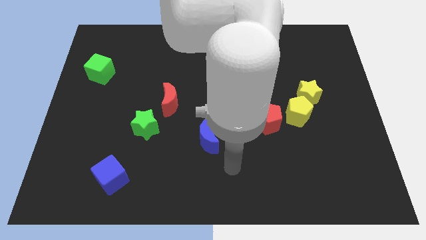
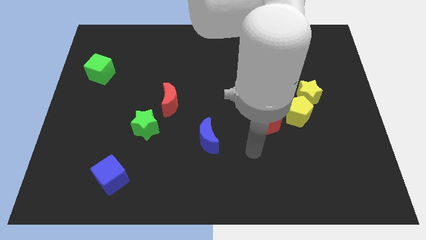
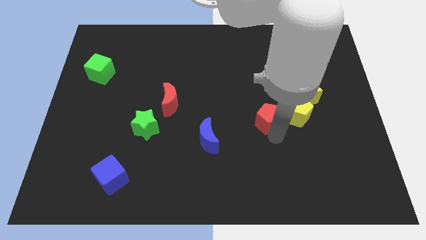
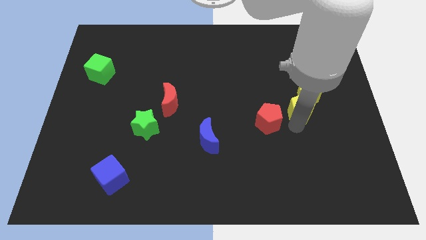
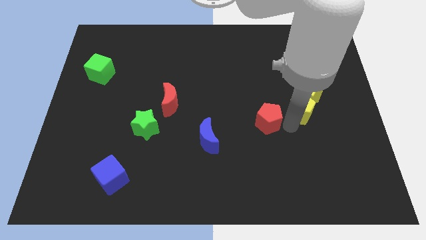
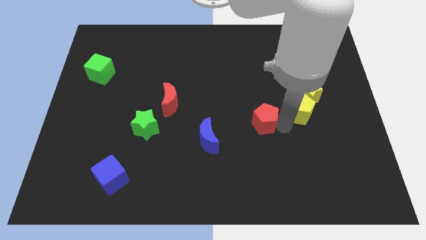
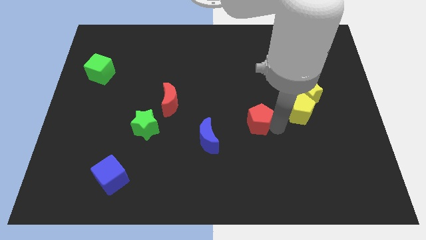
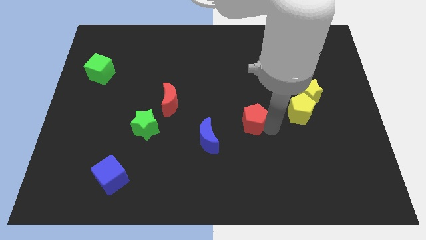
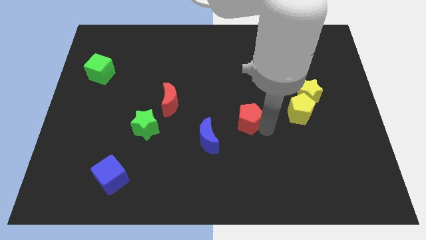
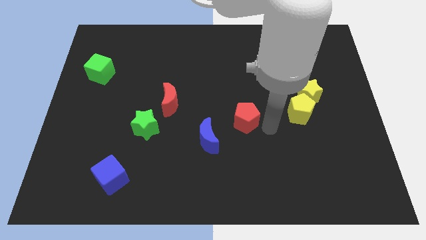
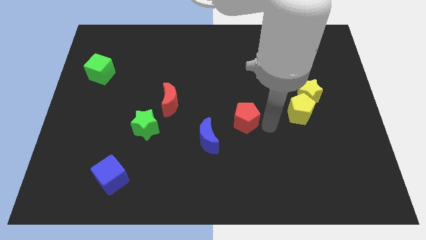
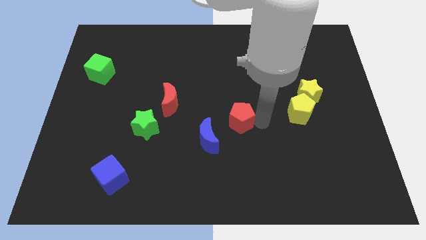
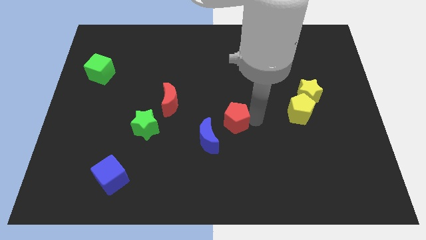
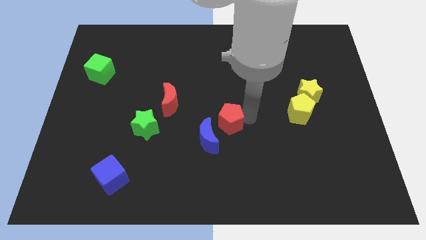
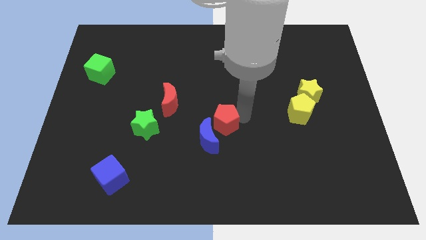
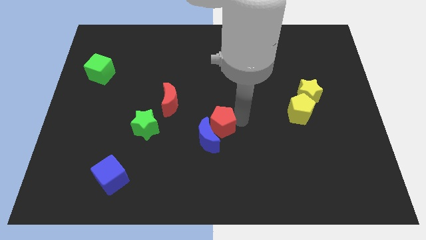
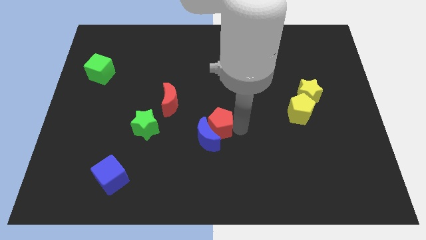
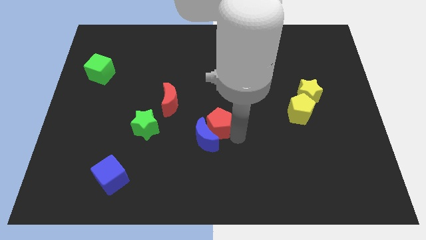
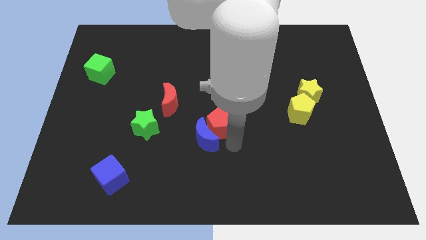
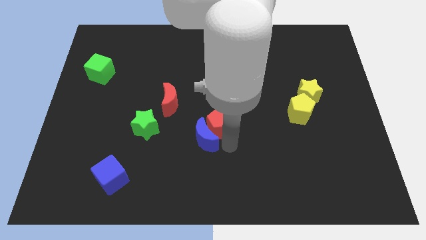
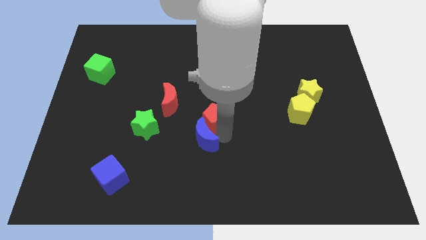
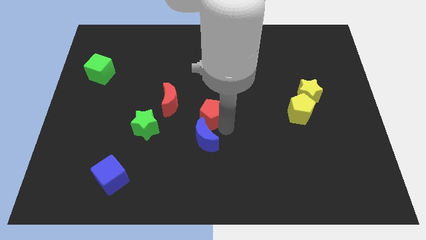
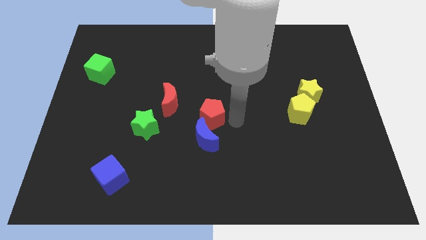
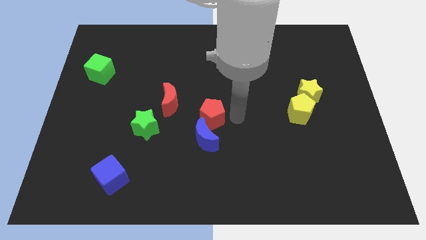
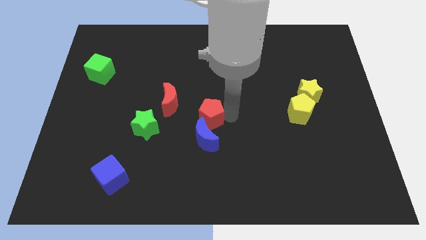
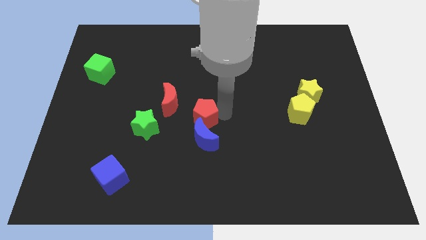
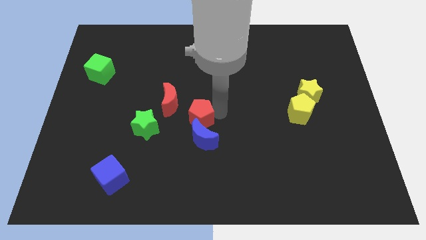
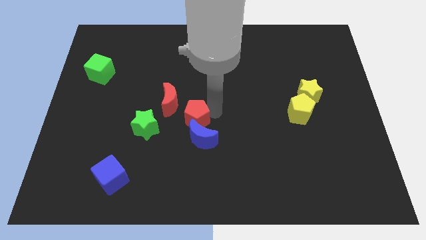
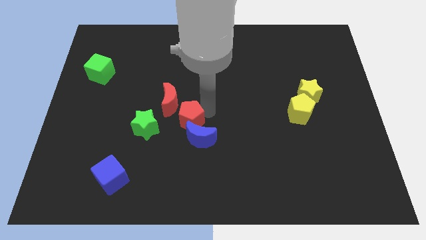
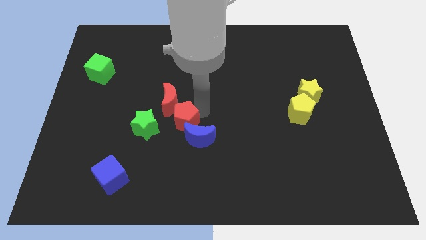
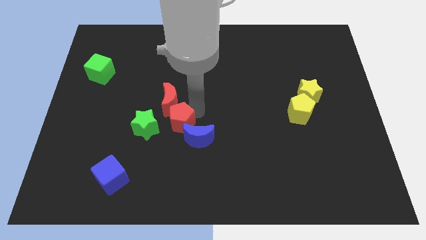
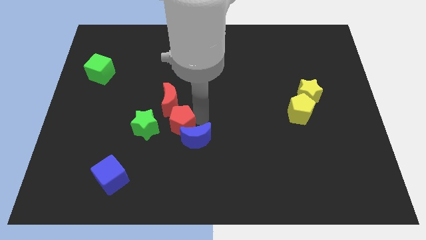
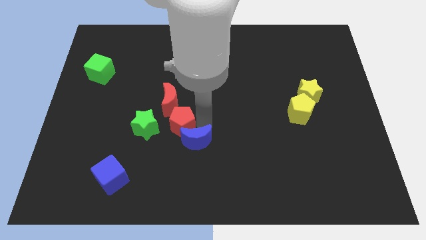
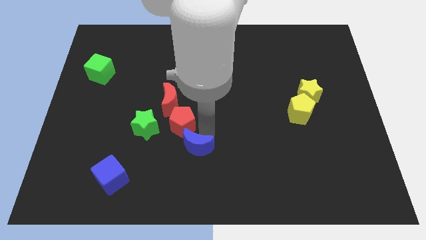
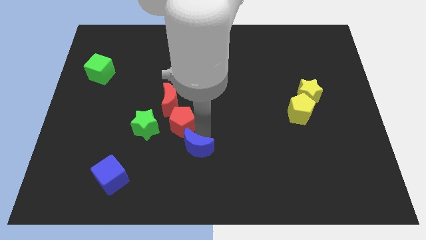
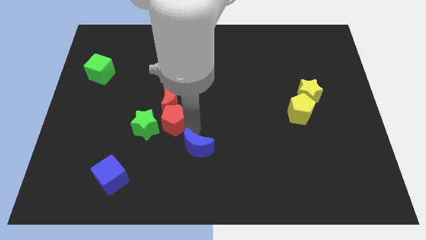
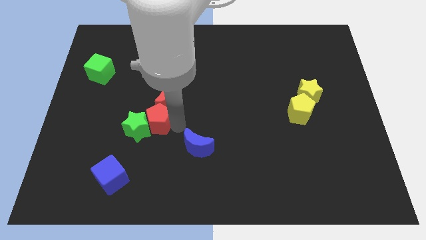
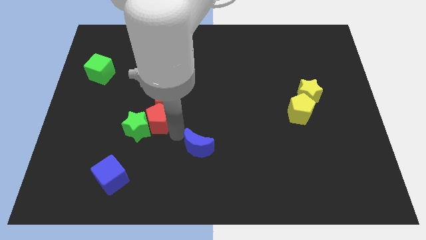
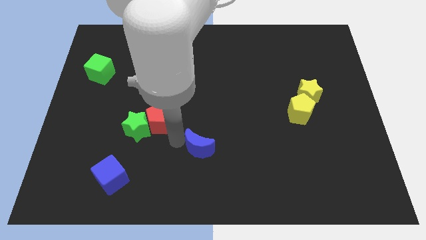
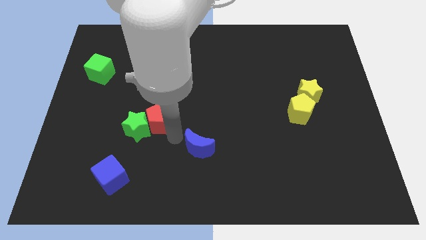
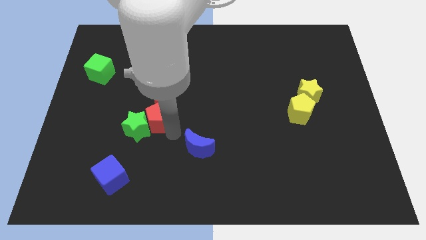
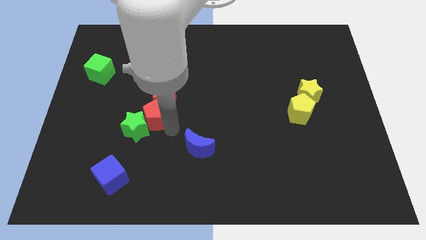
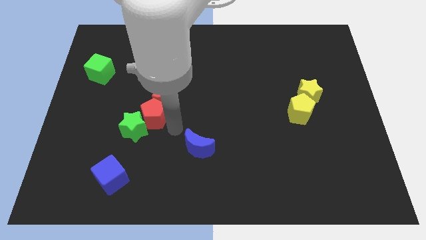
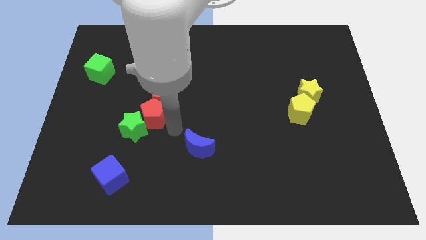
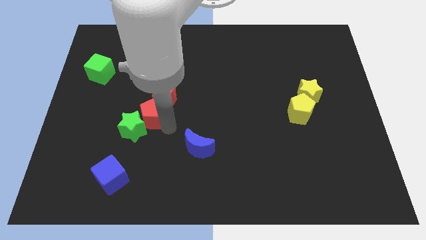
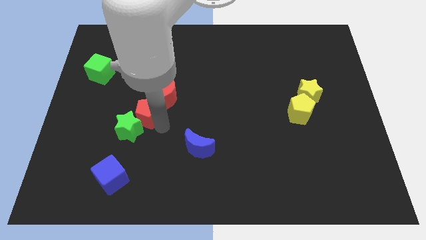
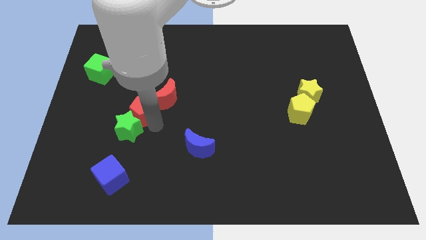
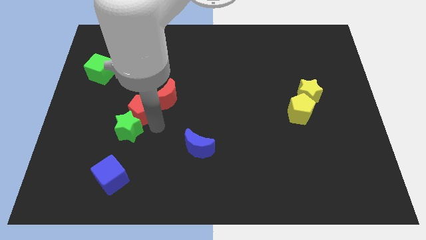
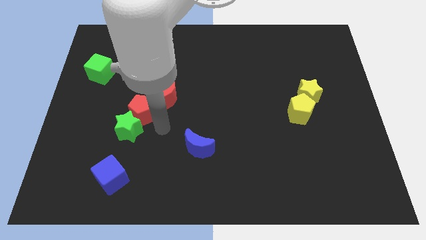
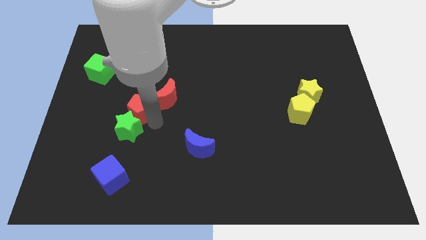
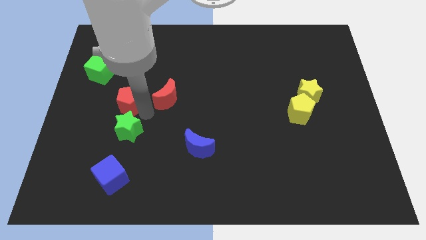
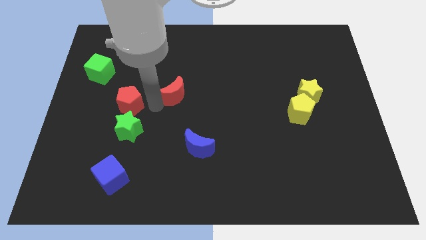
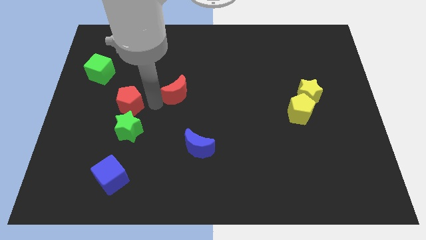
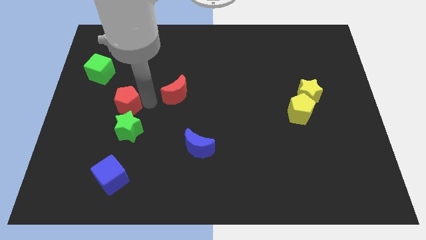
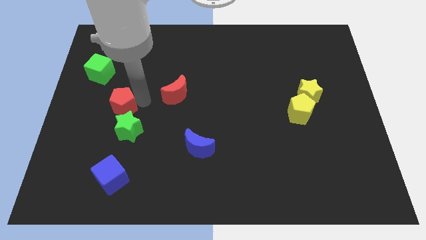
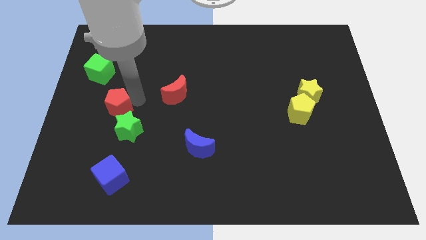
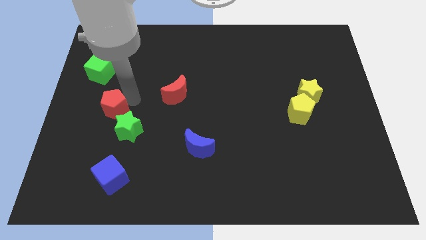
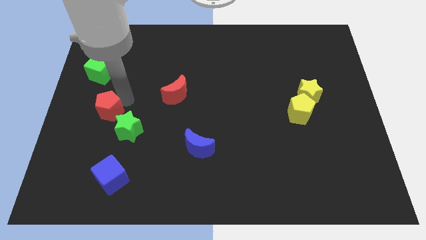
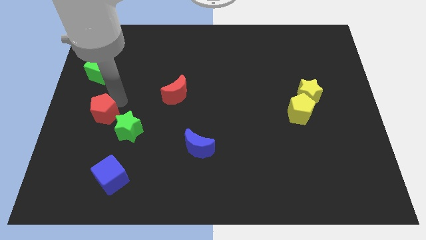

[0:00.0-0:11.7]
slide the red pentagon to the center left
